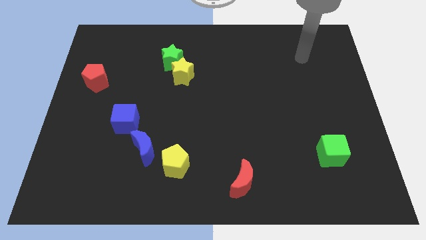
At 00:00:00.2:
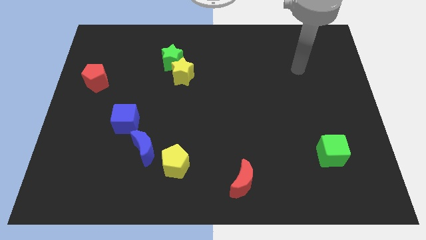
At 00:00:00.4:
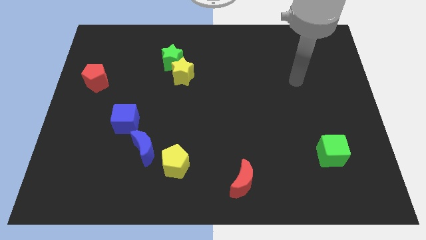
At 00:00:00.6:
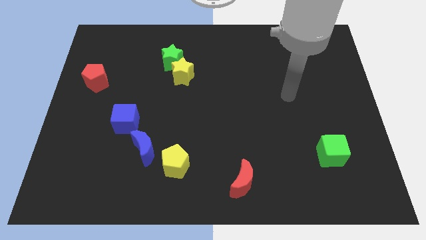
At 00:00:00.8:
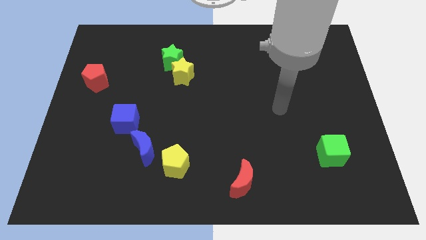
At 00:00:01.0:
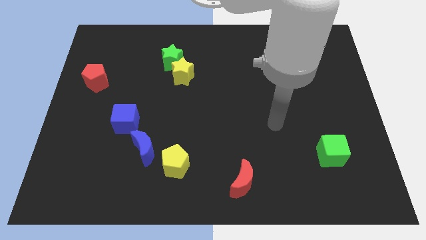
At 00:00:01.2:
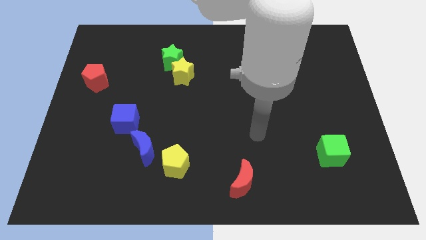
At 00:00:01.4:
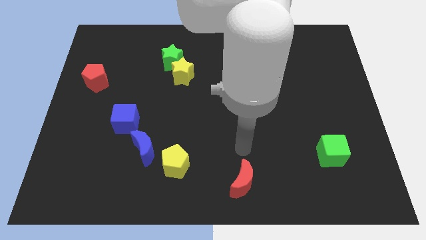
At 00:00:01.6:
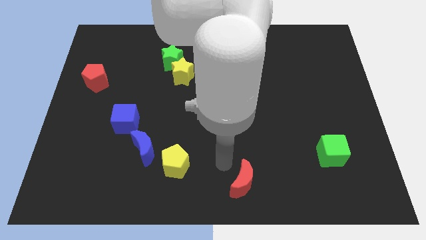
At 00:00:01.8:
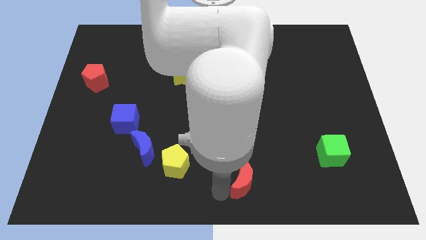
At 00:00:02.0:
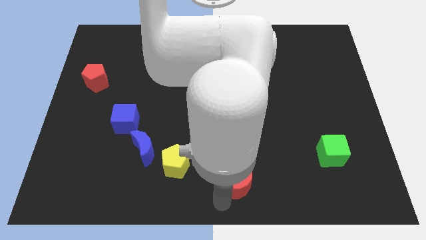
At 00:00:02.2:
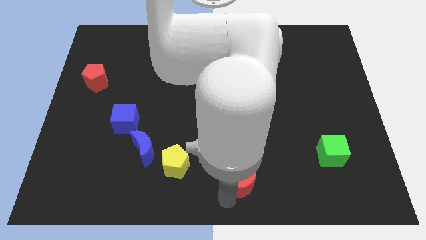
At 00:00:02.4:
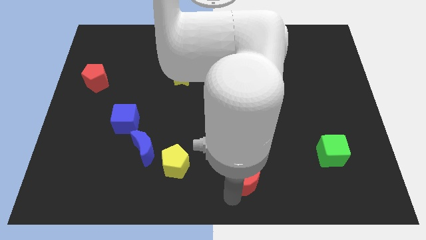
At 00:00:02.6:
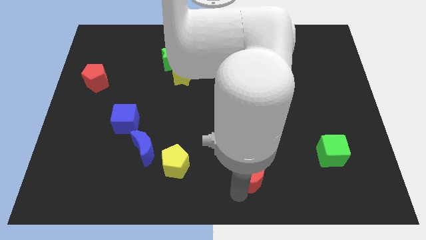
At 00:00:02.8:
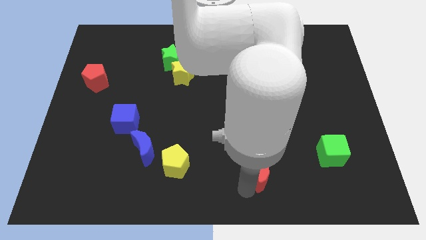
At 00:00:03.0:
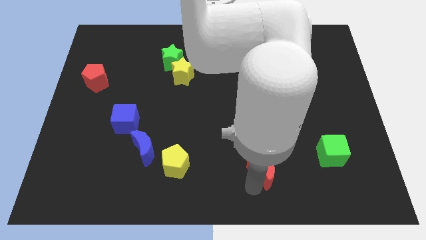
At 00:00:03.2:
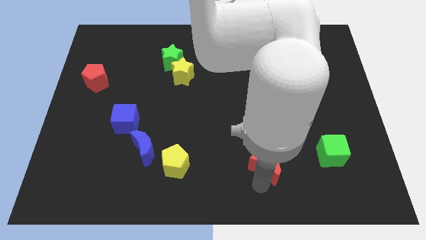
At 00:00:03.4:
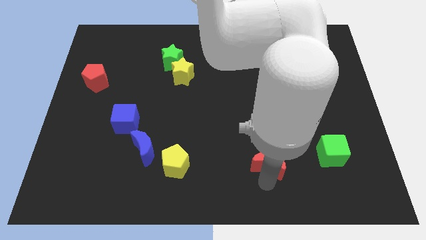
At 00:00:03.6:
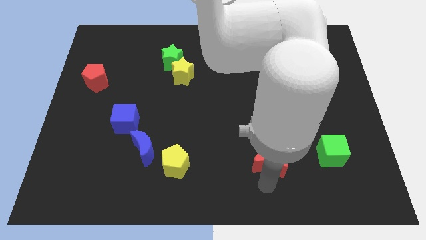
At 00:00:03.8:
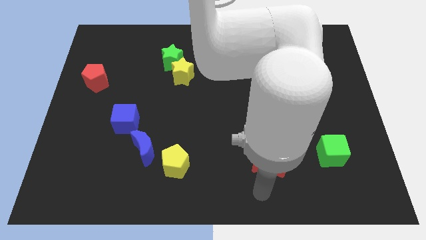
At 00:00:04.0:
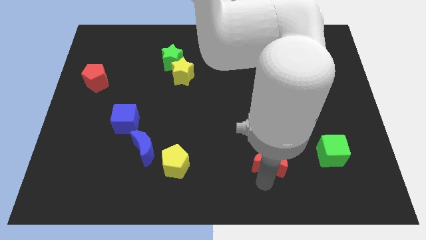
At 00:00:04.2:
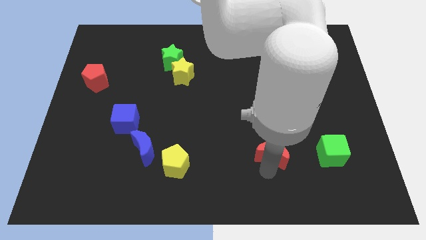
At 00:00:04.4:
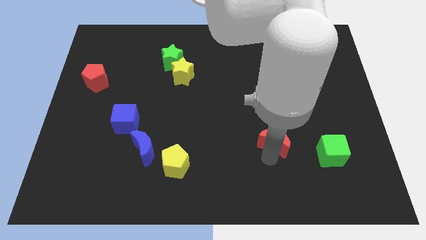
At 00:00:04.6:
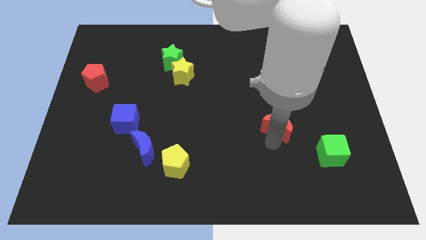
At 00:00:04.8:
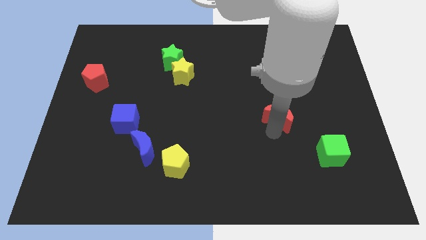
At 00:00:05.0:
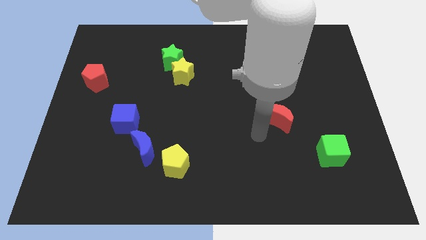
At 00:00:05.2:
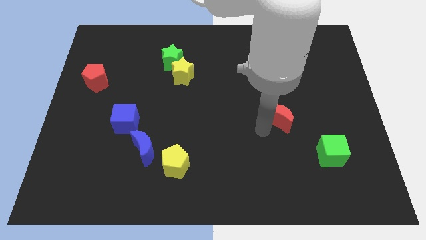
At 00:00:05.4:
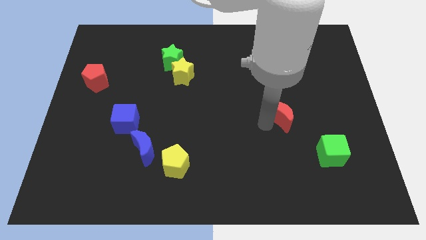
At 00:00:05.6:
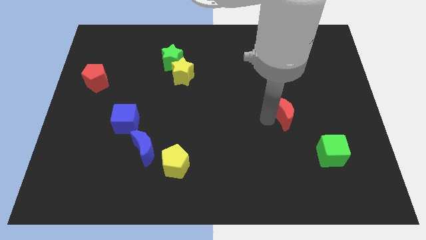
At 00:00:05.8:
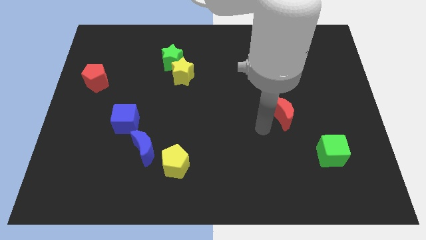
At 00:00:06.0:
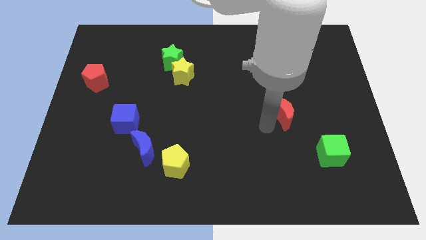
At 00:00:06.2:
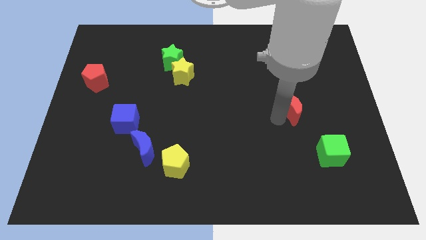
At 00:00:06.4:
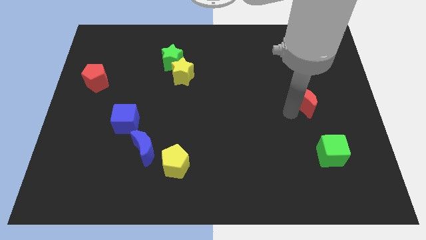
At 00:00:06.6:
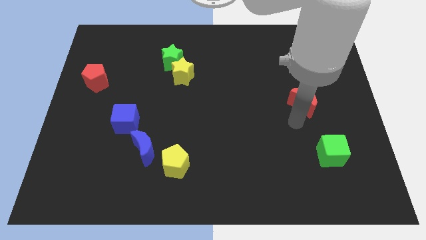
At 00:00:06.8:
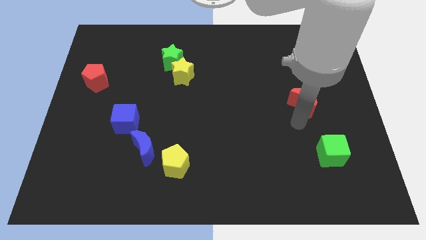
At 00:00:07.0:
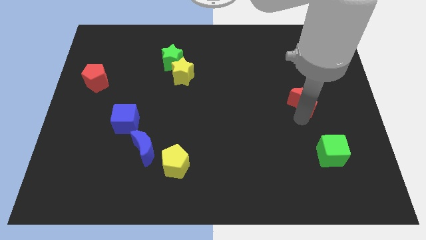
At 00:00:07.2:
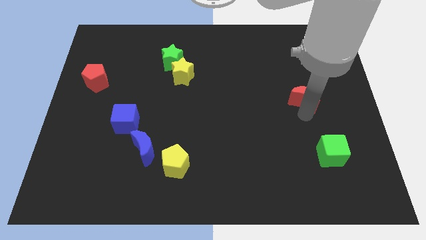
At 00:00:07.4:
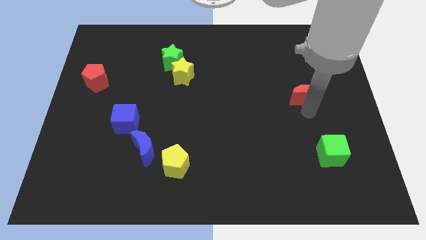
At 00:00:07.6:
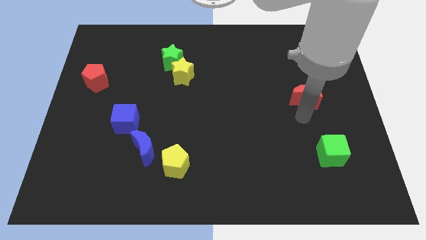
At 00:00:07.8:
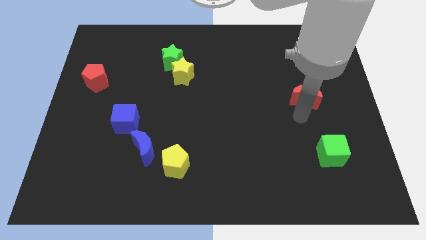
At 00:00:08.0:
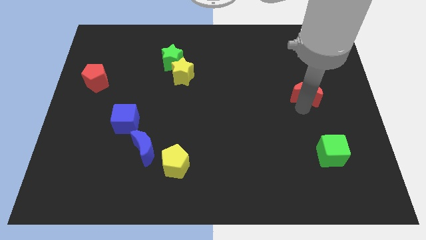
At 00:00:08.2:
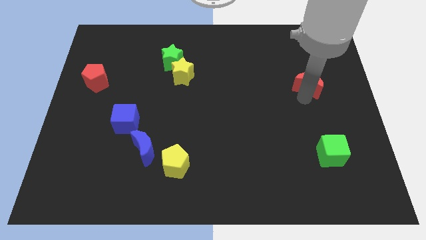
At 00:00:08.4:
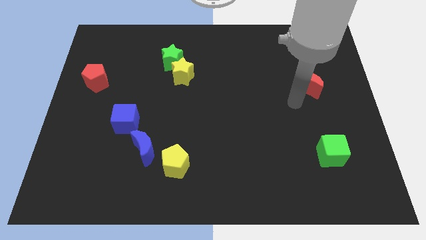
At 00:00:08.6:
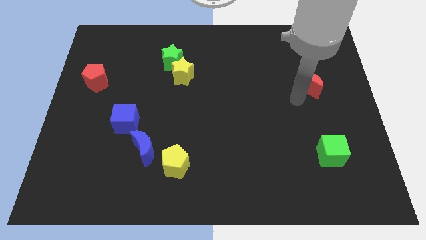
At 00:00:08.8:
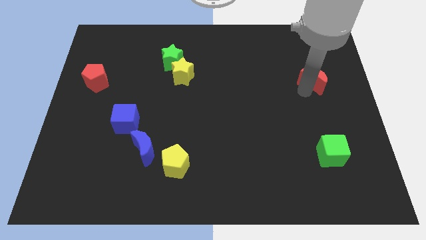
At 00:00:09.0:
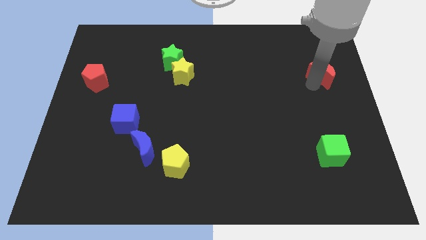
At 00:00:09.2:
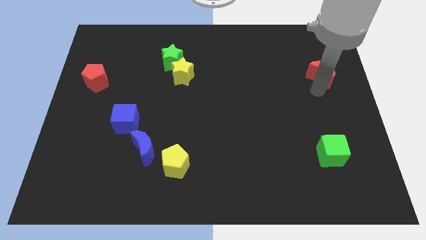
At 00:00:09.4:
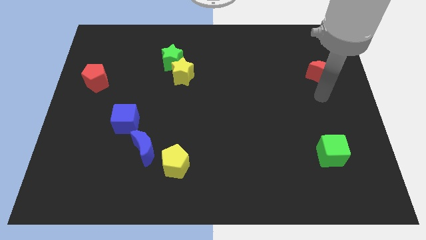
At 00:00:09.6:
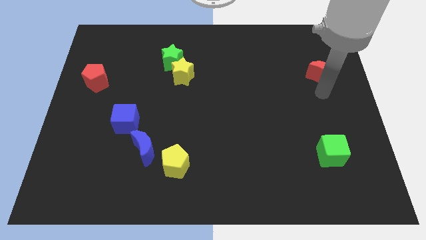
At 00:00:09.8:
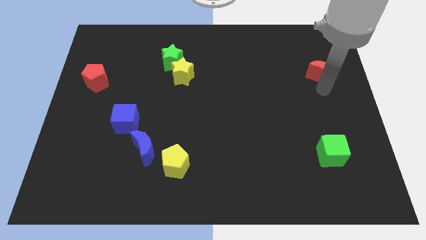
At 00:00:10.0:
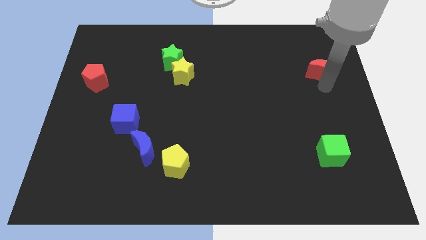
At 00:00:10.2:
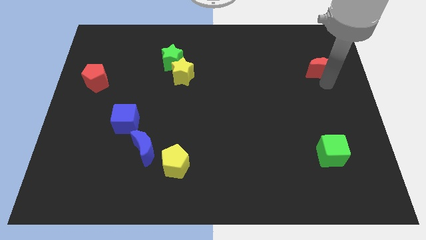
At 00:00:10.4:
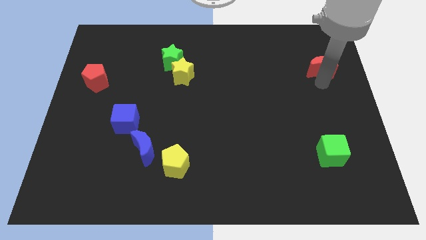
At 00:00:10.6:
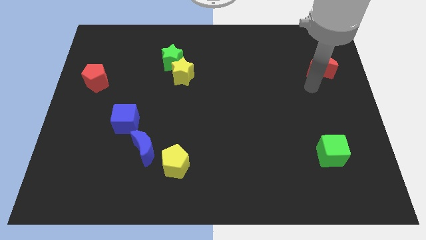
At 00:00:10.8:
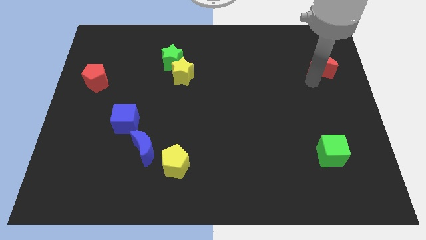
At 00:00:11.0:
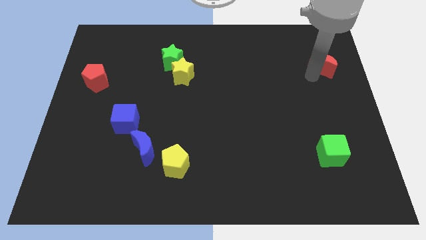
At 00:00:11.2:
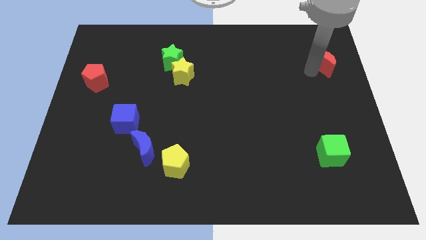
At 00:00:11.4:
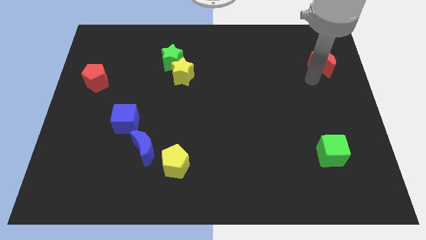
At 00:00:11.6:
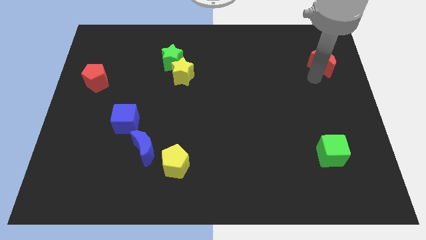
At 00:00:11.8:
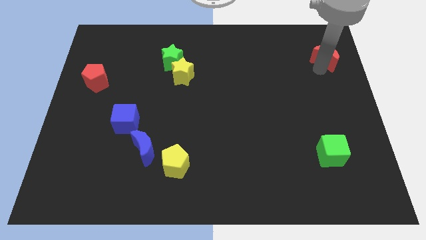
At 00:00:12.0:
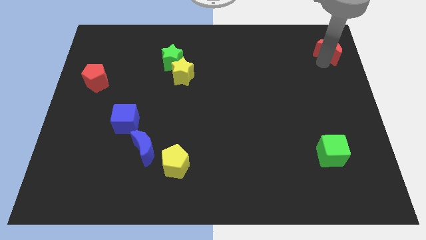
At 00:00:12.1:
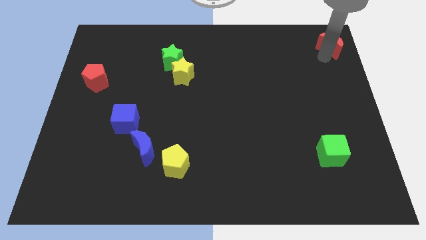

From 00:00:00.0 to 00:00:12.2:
move the red moon to the top right corner
